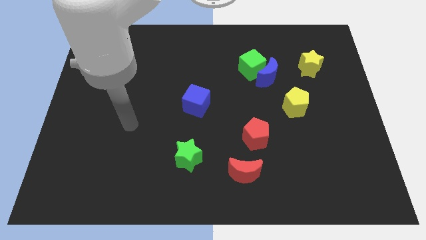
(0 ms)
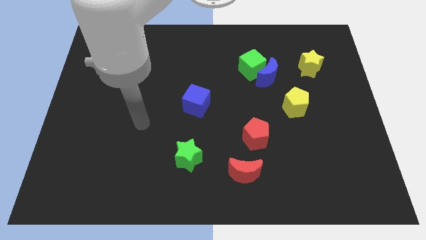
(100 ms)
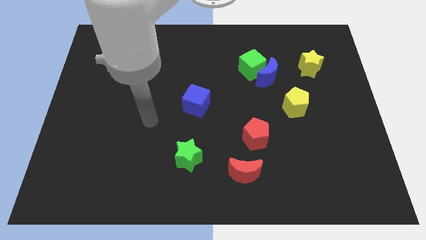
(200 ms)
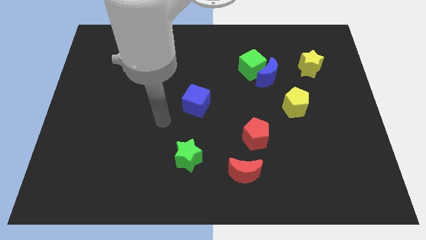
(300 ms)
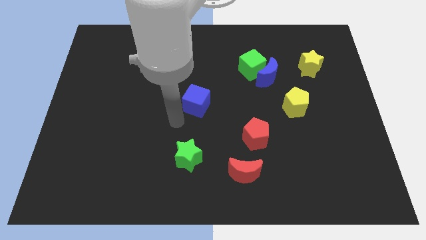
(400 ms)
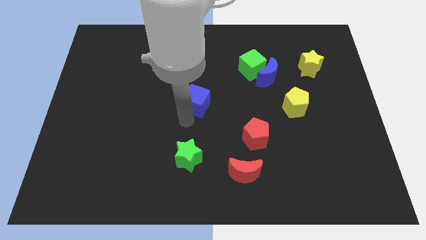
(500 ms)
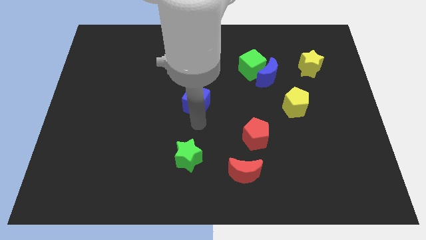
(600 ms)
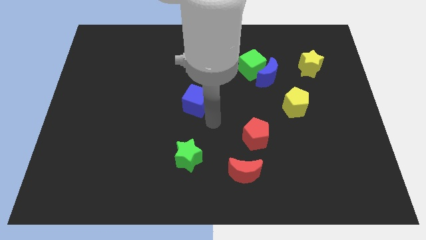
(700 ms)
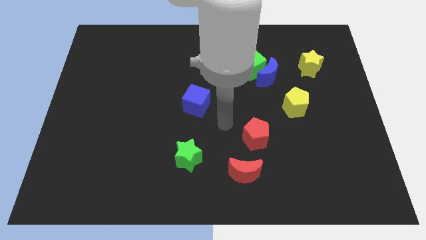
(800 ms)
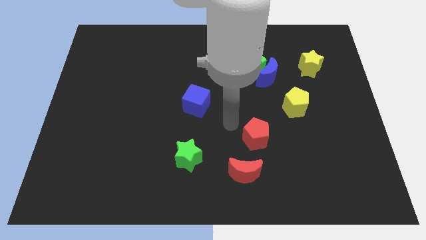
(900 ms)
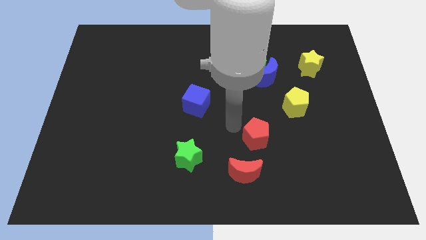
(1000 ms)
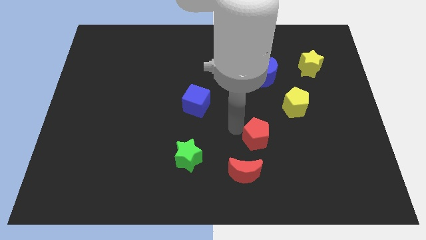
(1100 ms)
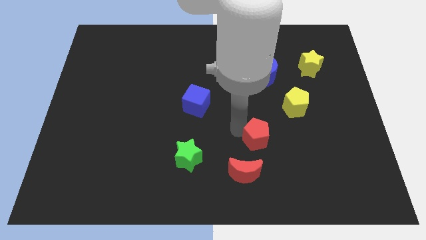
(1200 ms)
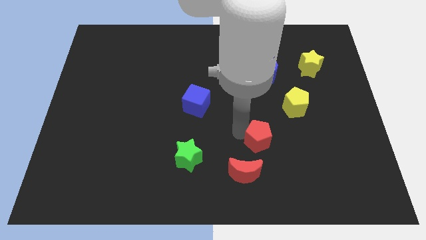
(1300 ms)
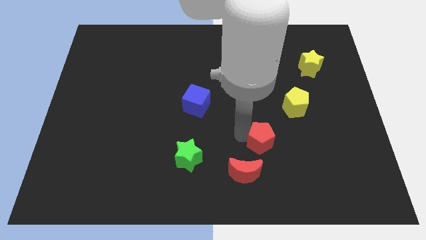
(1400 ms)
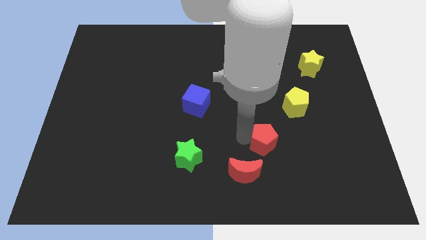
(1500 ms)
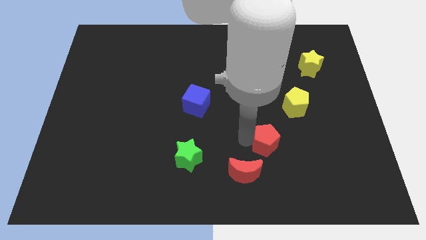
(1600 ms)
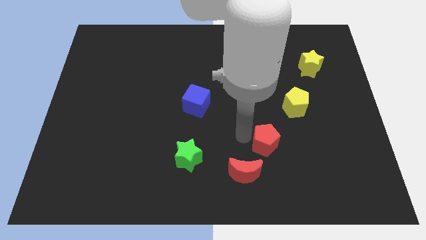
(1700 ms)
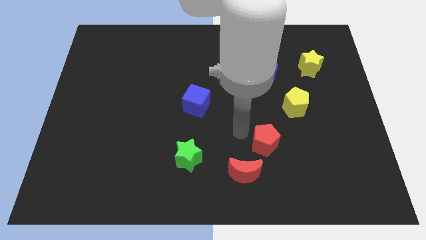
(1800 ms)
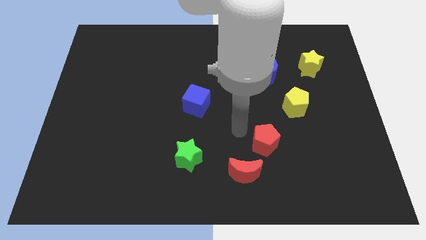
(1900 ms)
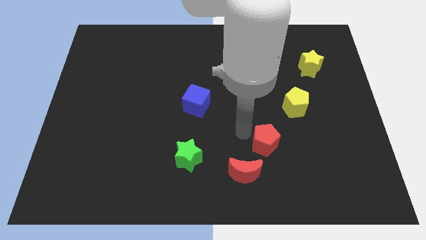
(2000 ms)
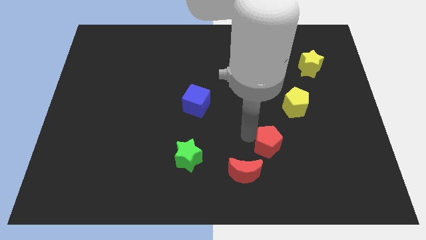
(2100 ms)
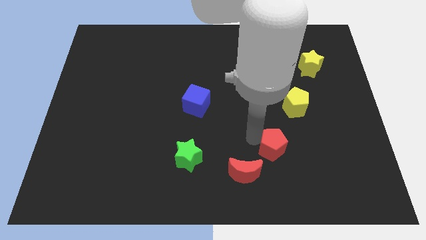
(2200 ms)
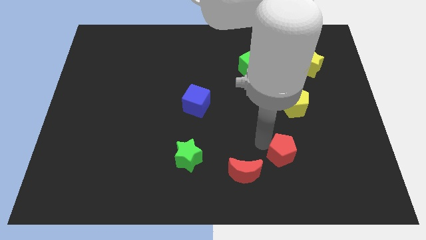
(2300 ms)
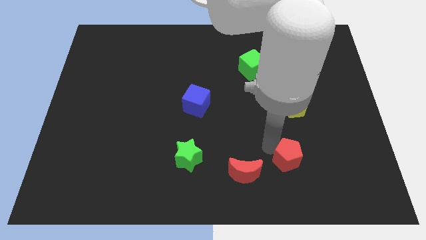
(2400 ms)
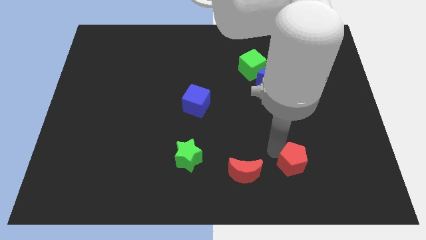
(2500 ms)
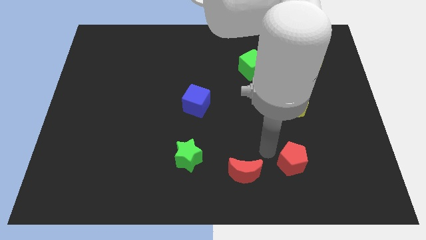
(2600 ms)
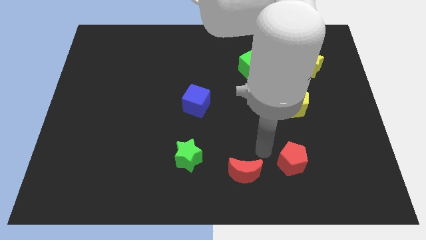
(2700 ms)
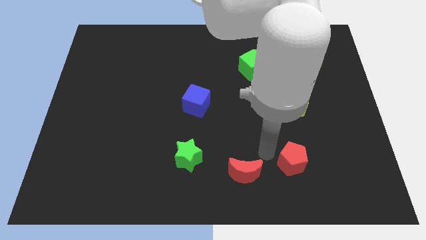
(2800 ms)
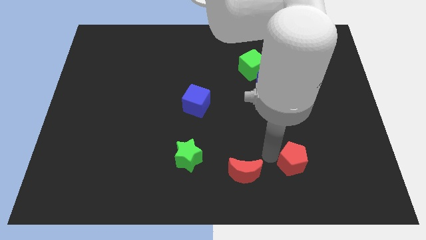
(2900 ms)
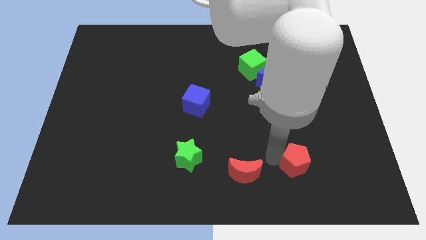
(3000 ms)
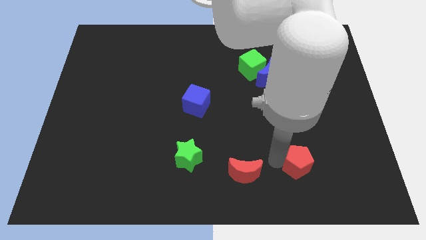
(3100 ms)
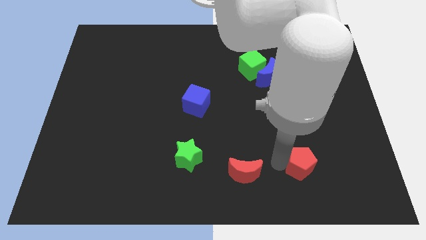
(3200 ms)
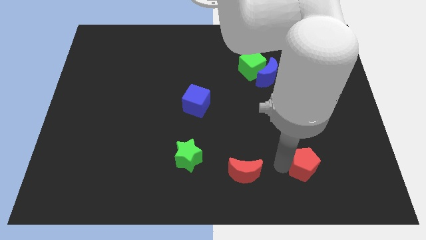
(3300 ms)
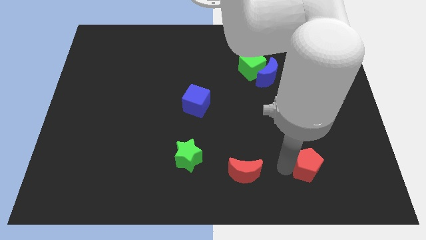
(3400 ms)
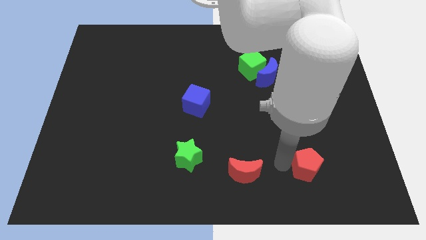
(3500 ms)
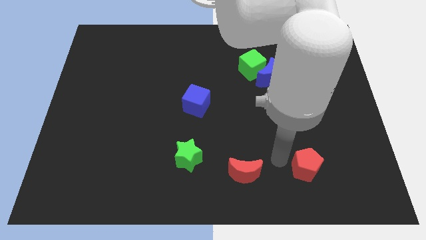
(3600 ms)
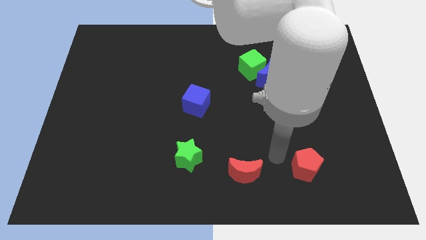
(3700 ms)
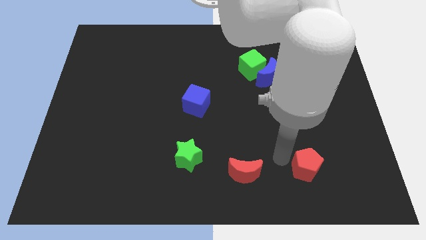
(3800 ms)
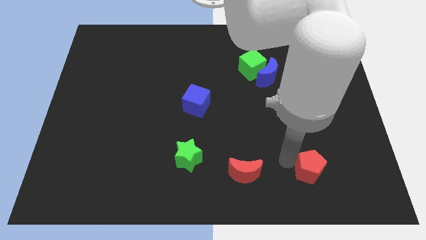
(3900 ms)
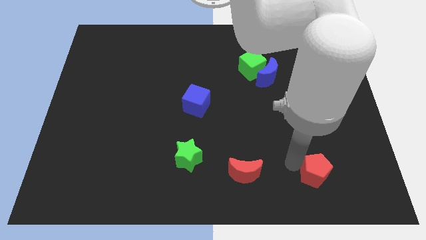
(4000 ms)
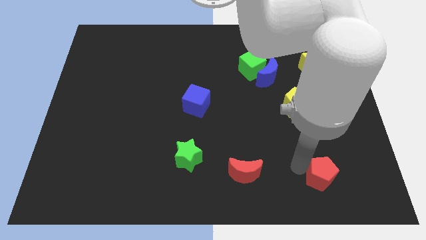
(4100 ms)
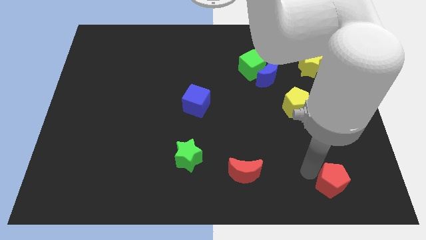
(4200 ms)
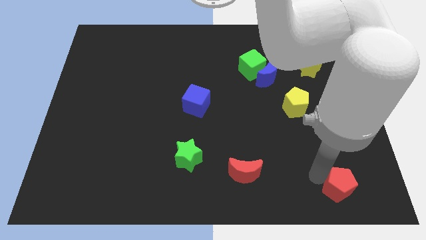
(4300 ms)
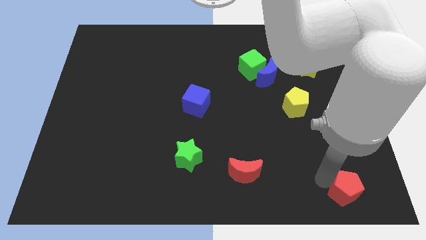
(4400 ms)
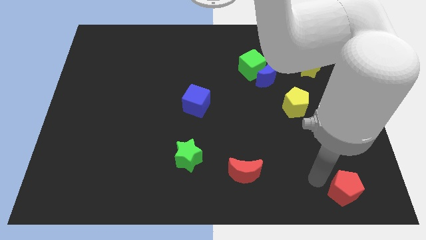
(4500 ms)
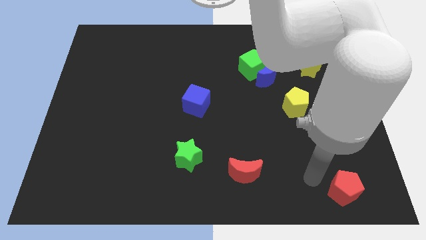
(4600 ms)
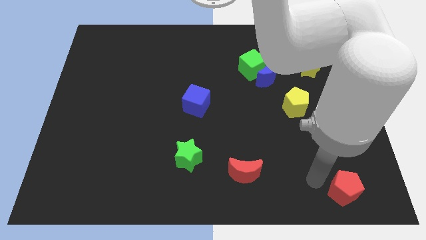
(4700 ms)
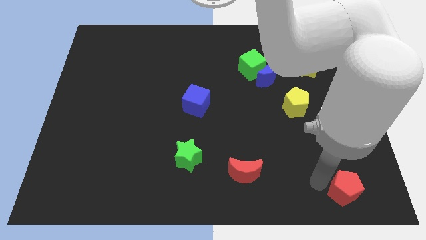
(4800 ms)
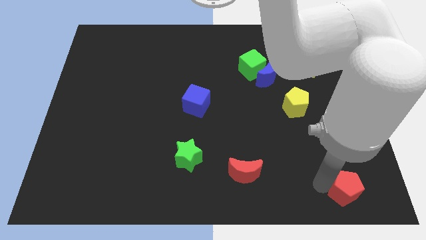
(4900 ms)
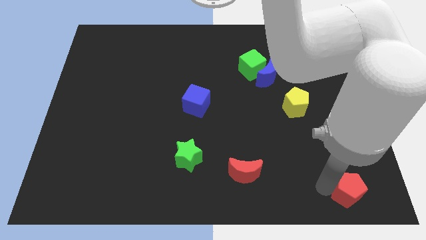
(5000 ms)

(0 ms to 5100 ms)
slide the red pentagon to the lower right corner

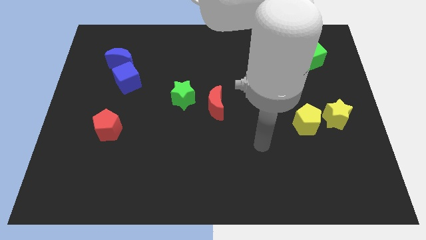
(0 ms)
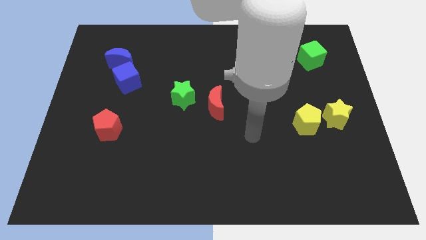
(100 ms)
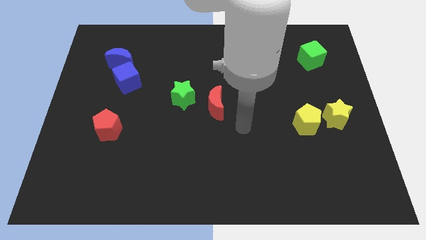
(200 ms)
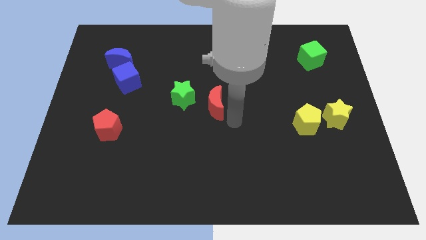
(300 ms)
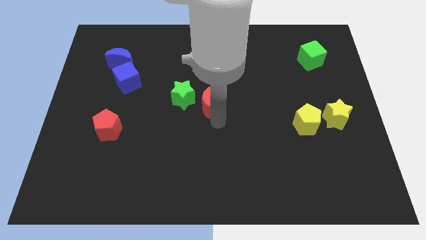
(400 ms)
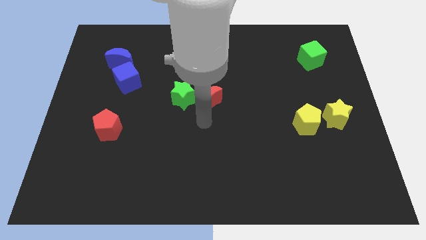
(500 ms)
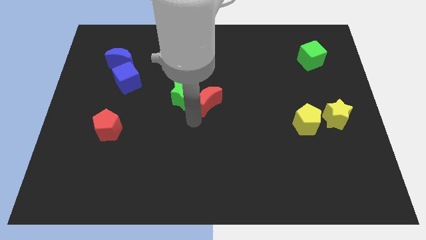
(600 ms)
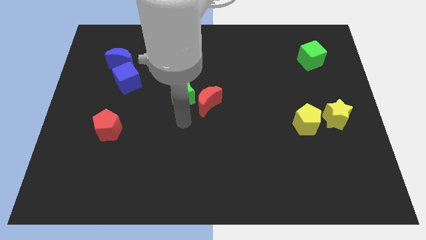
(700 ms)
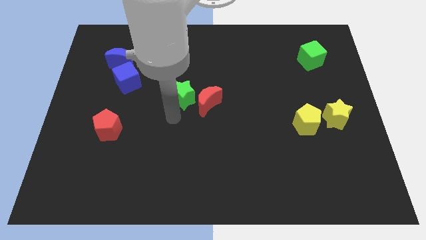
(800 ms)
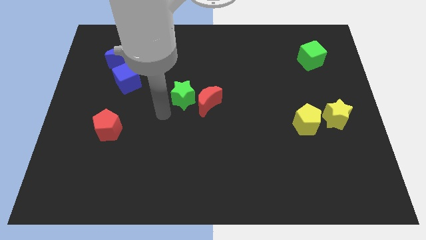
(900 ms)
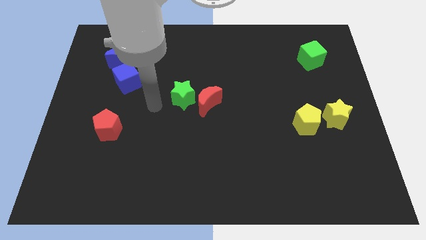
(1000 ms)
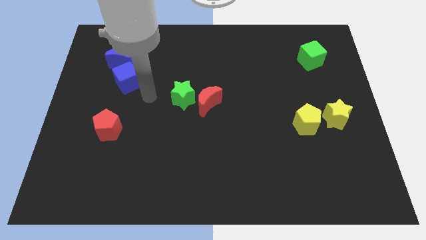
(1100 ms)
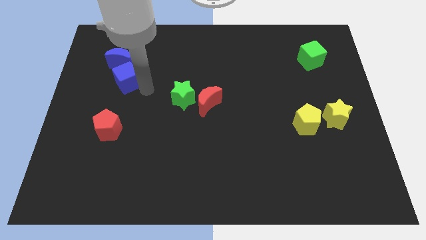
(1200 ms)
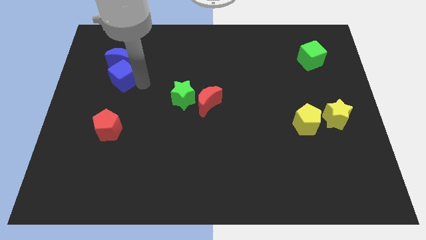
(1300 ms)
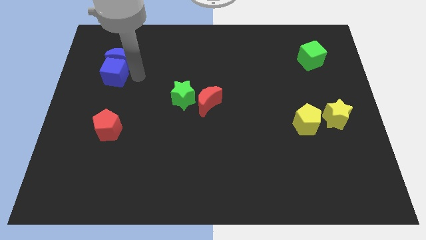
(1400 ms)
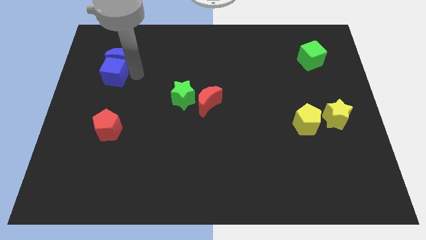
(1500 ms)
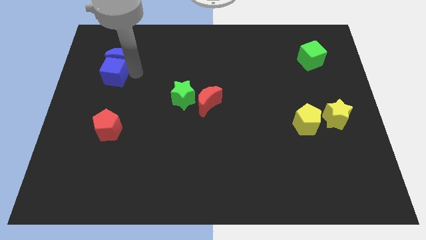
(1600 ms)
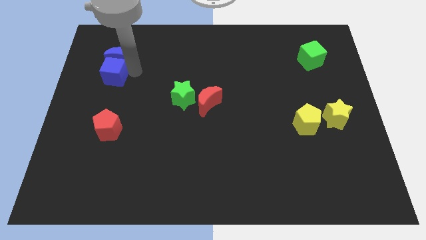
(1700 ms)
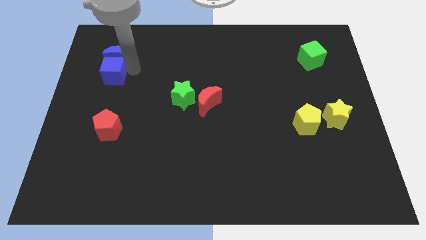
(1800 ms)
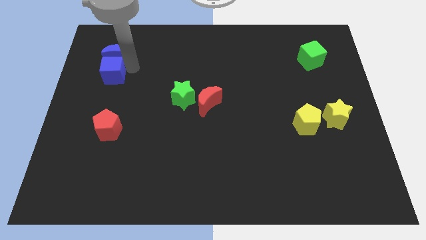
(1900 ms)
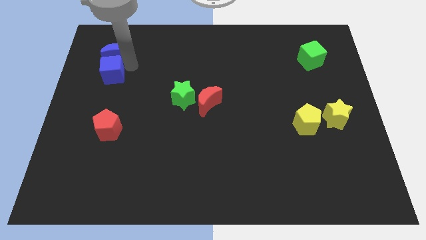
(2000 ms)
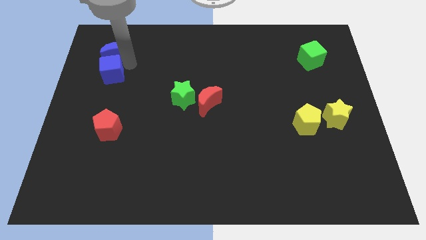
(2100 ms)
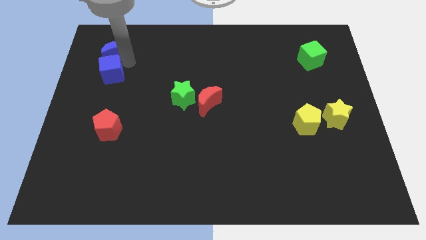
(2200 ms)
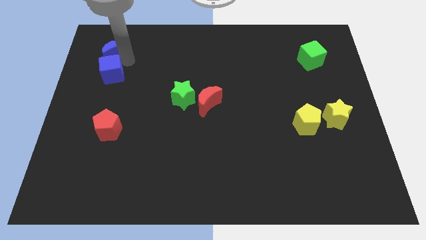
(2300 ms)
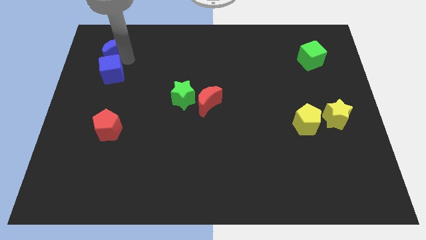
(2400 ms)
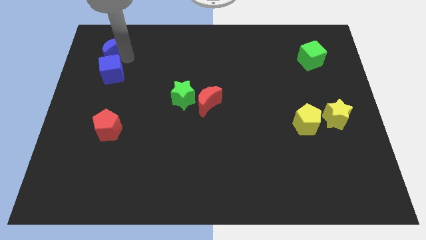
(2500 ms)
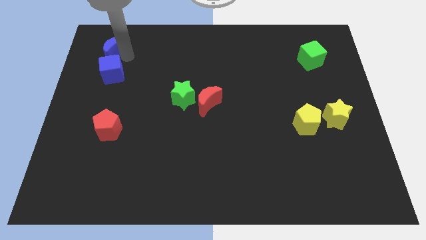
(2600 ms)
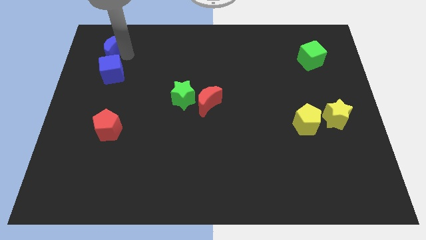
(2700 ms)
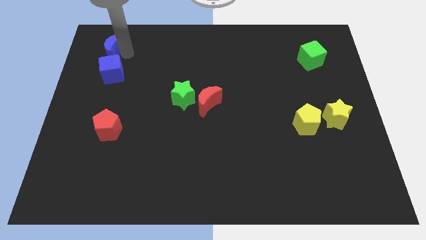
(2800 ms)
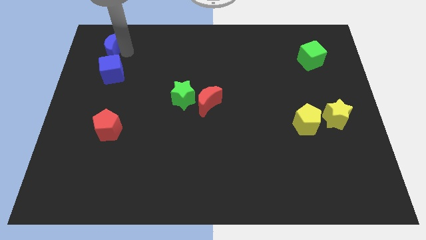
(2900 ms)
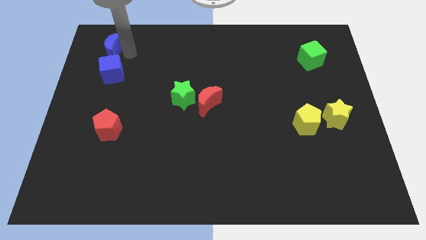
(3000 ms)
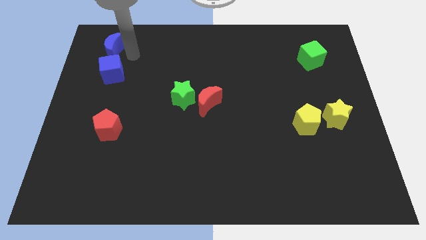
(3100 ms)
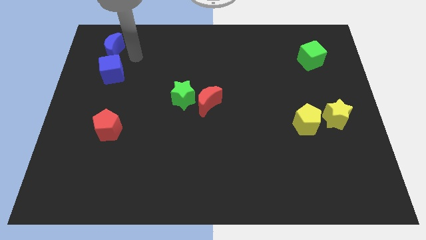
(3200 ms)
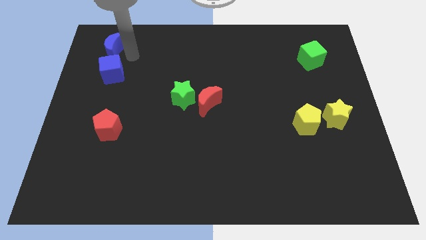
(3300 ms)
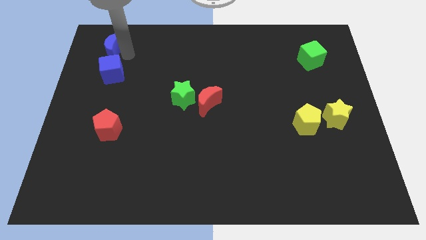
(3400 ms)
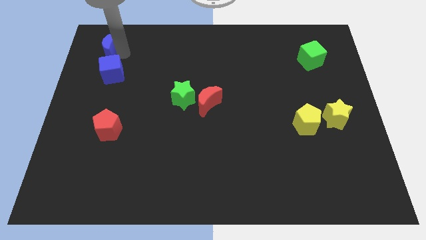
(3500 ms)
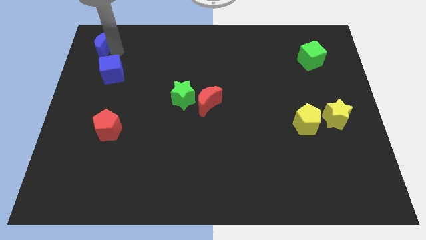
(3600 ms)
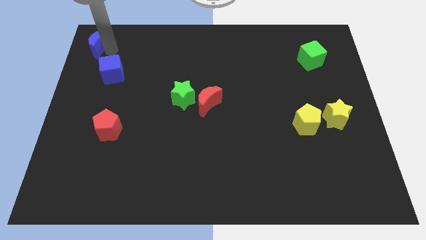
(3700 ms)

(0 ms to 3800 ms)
move the blue moon to the top left of the board
